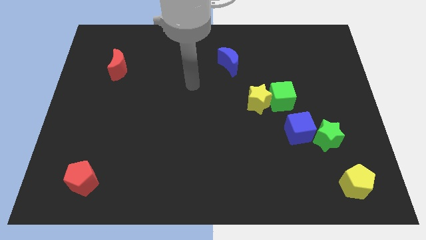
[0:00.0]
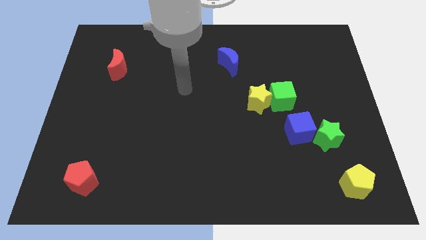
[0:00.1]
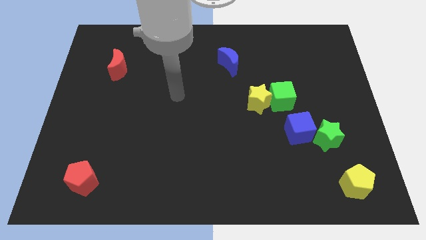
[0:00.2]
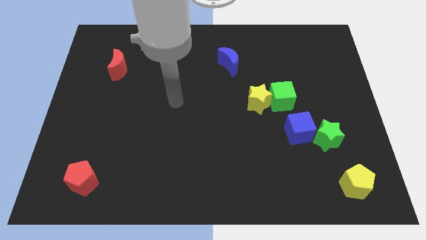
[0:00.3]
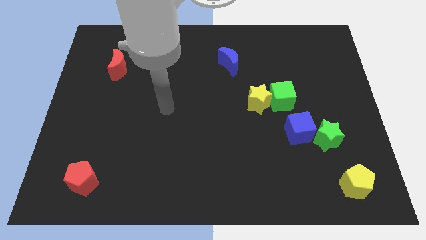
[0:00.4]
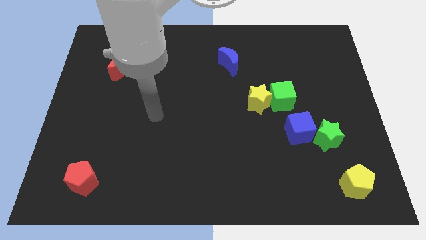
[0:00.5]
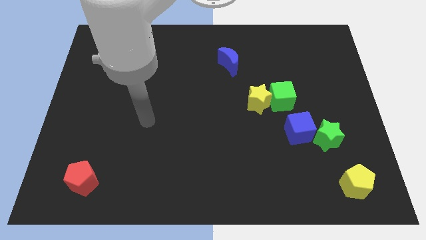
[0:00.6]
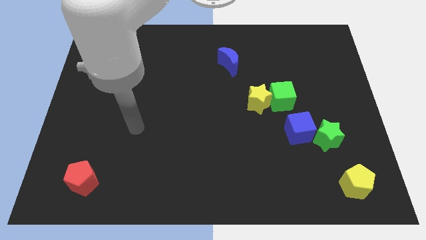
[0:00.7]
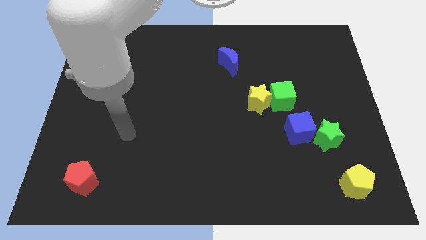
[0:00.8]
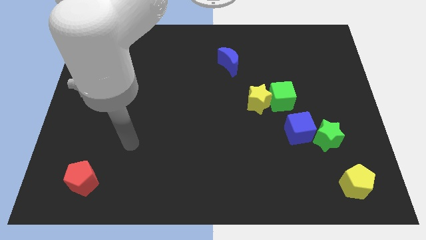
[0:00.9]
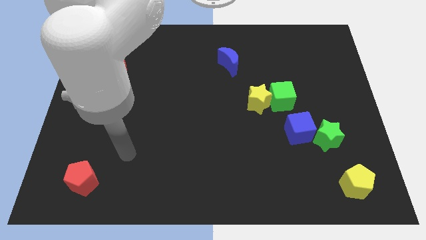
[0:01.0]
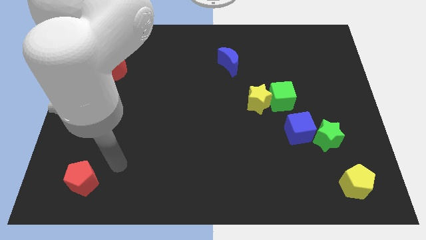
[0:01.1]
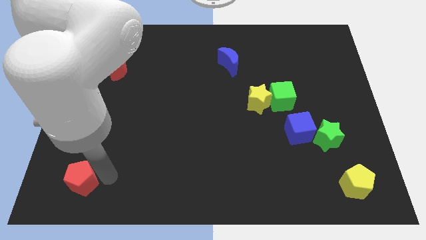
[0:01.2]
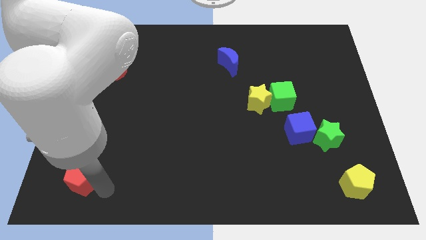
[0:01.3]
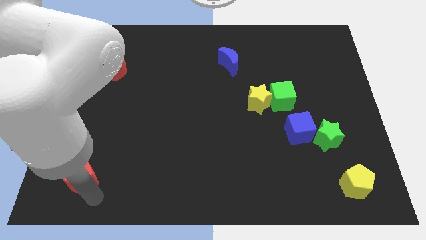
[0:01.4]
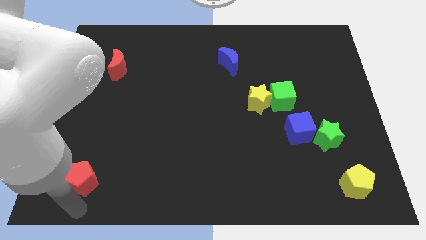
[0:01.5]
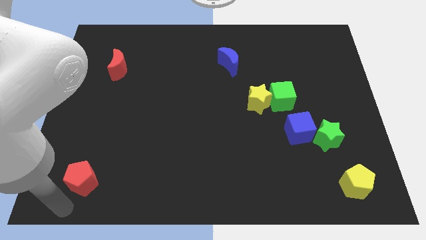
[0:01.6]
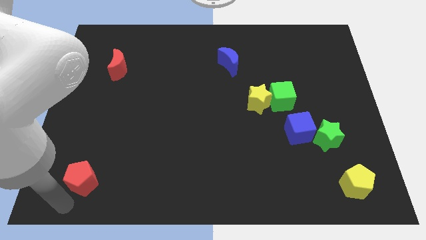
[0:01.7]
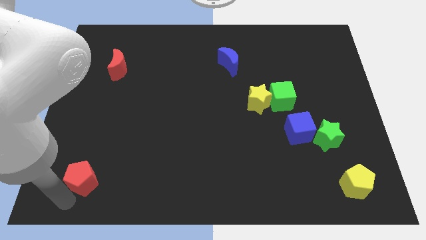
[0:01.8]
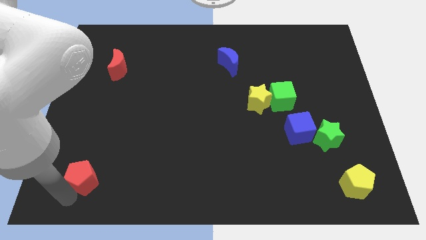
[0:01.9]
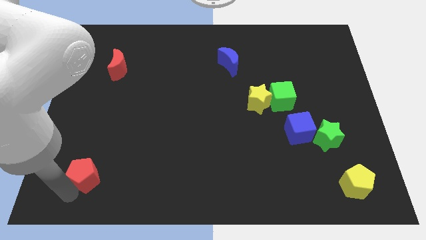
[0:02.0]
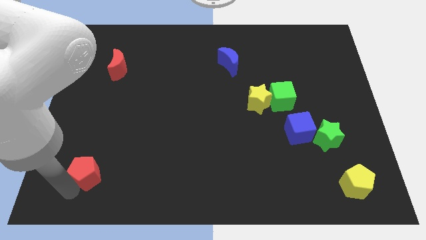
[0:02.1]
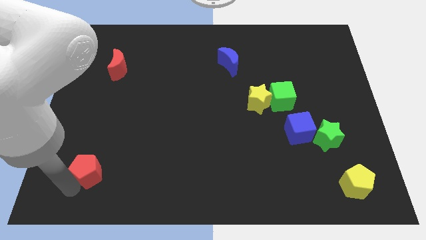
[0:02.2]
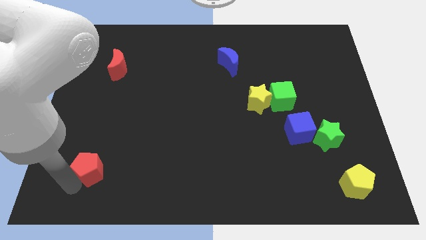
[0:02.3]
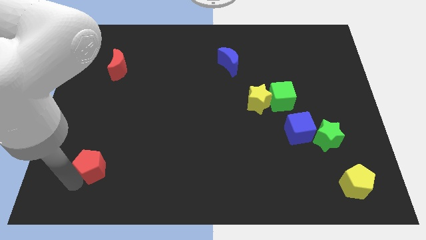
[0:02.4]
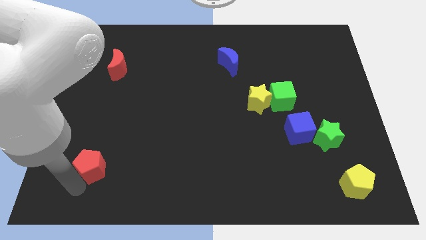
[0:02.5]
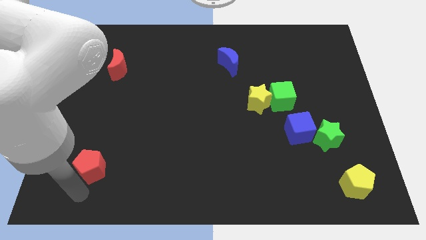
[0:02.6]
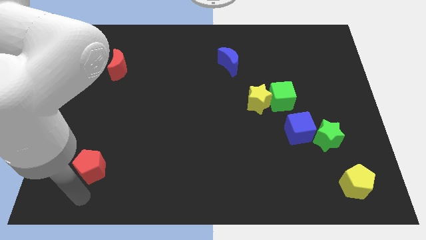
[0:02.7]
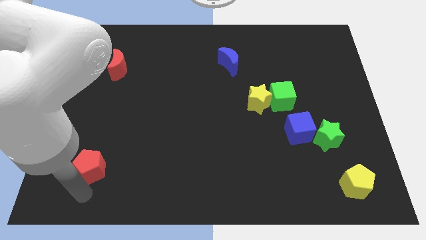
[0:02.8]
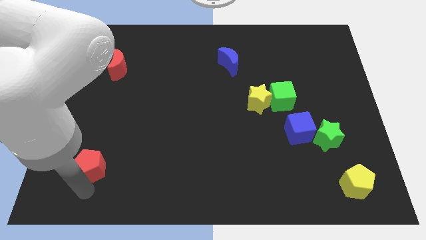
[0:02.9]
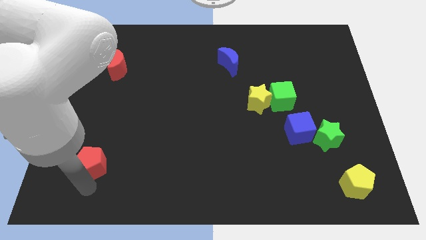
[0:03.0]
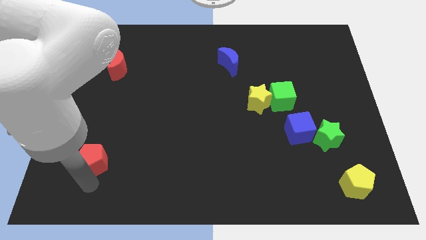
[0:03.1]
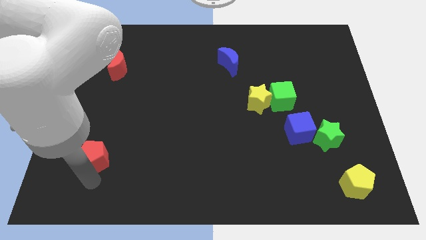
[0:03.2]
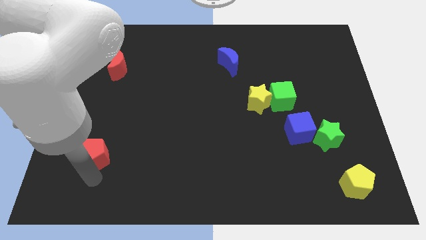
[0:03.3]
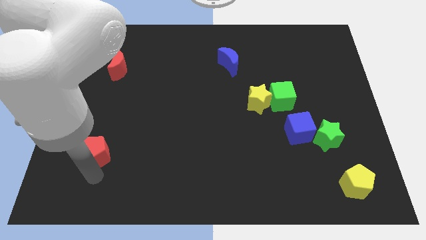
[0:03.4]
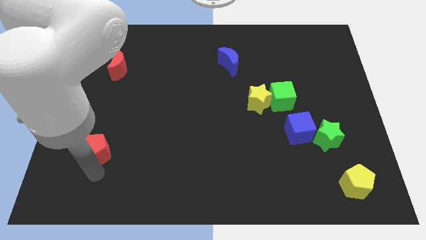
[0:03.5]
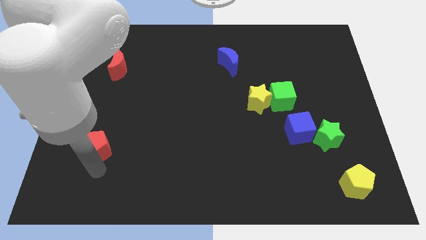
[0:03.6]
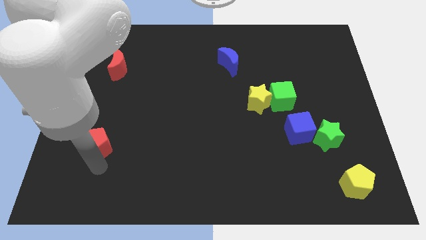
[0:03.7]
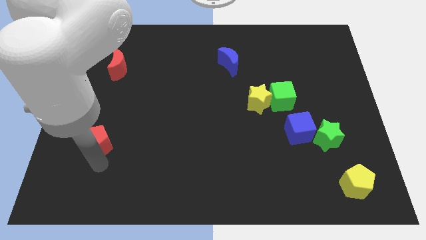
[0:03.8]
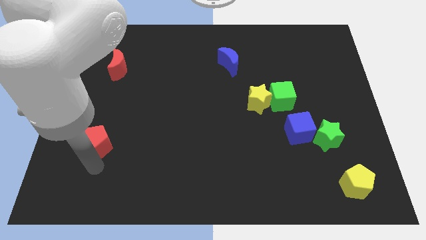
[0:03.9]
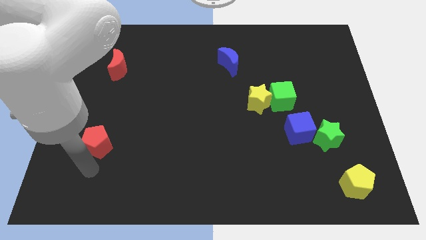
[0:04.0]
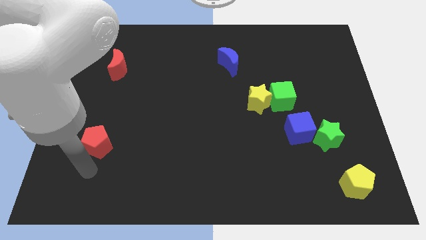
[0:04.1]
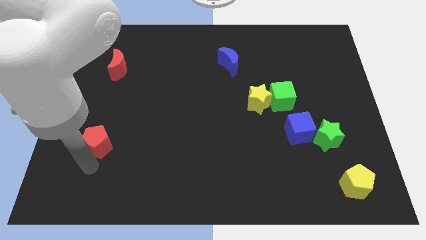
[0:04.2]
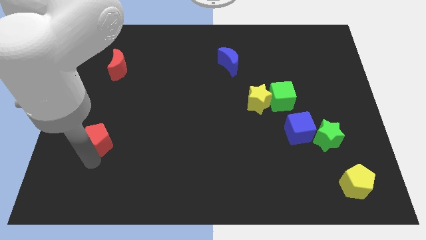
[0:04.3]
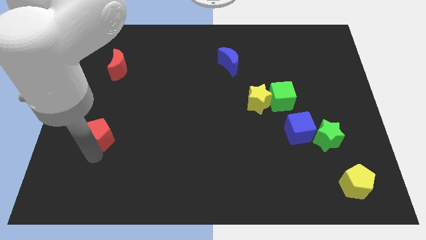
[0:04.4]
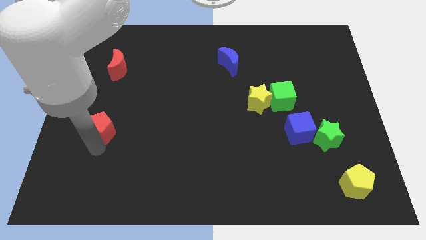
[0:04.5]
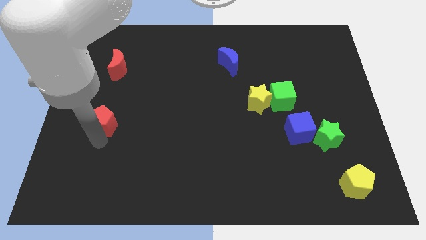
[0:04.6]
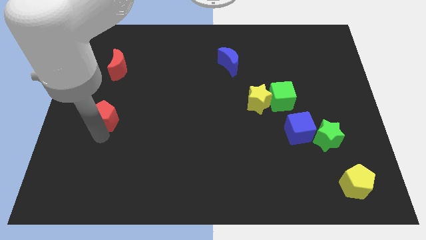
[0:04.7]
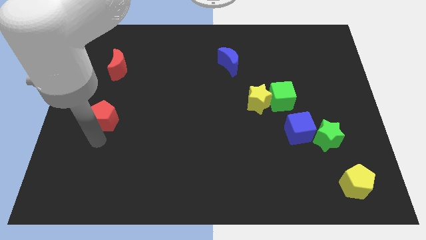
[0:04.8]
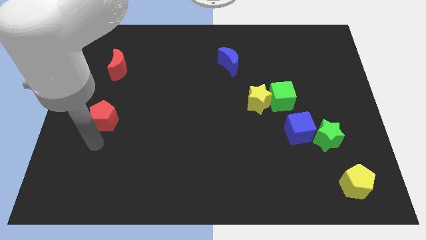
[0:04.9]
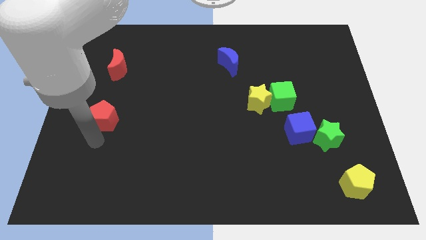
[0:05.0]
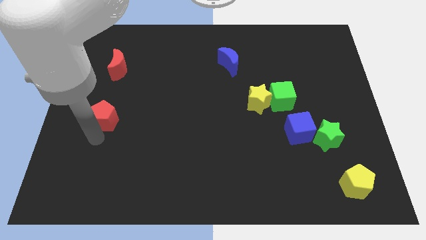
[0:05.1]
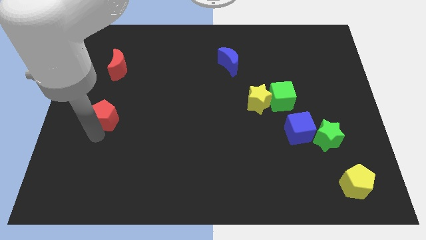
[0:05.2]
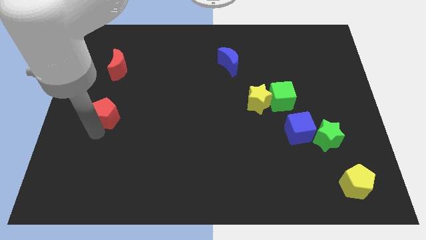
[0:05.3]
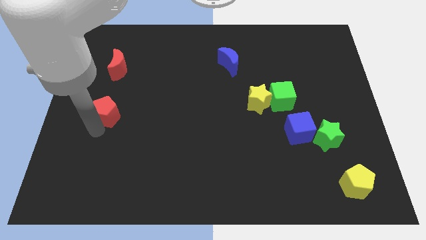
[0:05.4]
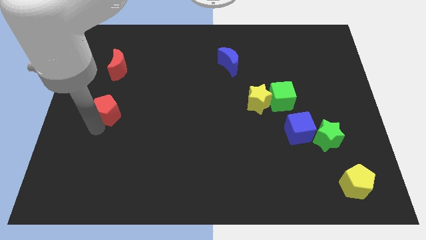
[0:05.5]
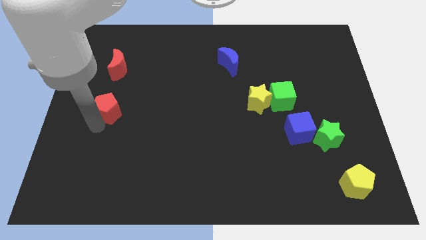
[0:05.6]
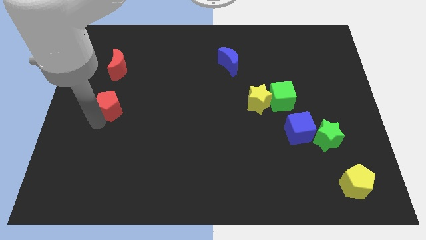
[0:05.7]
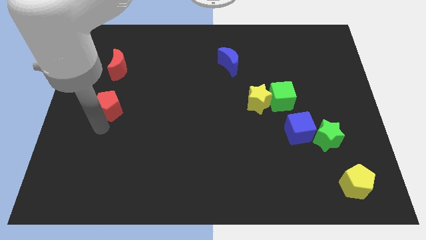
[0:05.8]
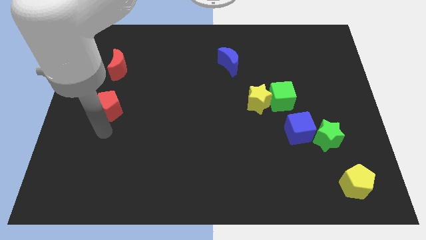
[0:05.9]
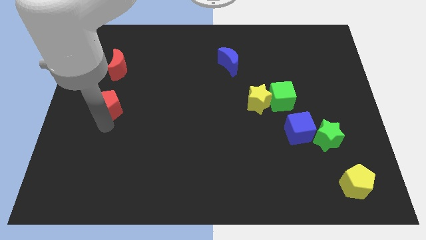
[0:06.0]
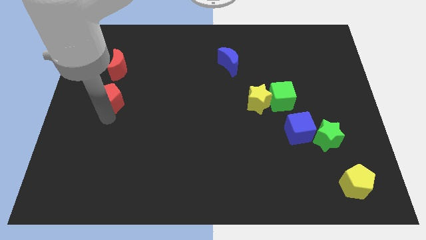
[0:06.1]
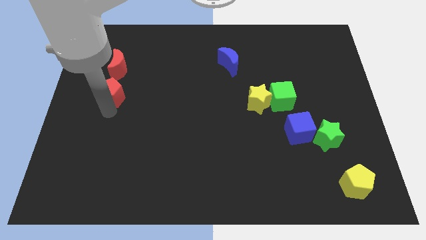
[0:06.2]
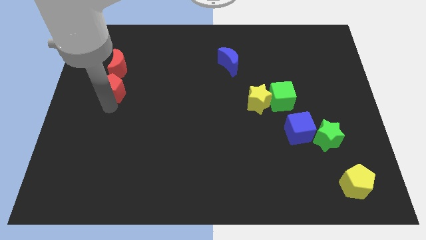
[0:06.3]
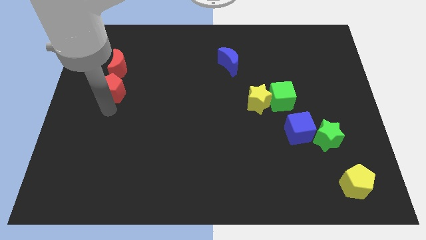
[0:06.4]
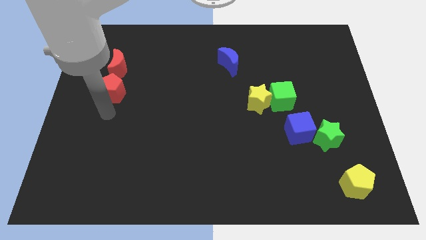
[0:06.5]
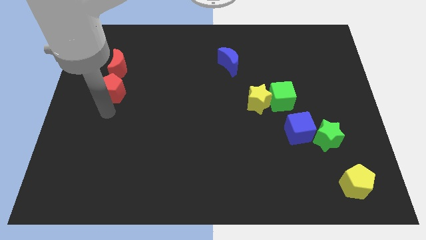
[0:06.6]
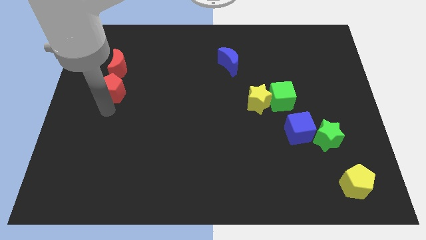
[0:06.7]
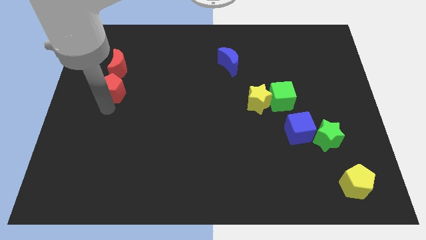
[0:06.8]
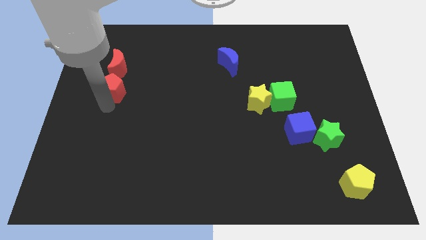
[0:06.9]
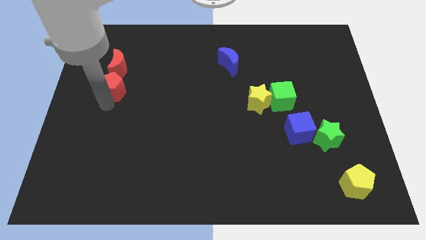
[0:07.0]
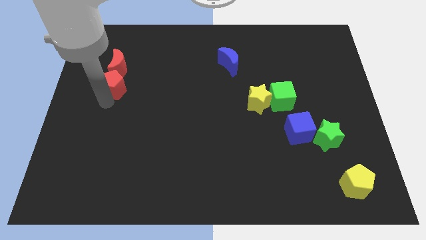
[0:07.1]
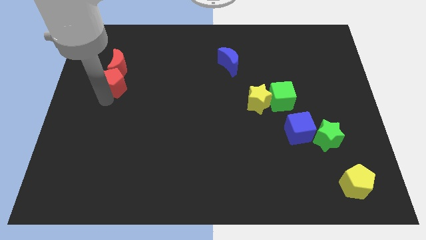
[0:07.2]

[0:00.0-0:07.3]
slide the red pentagon close to the red moon

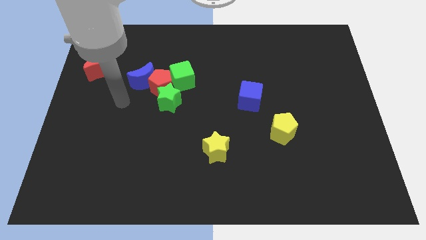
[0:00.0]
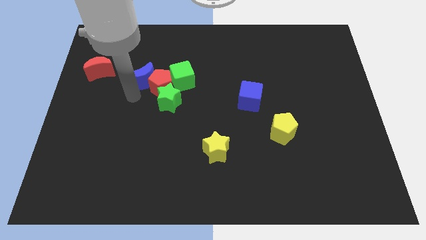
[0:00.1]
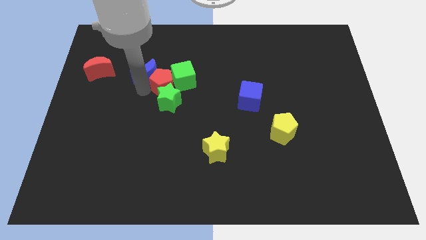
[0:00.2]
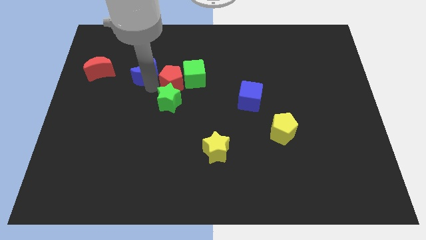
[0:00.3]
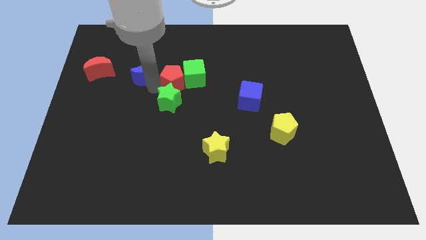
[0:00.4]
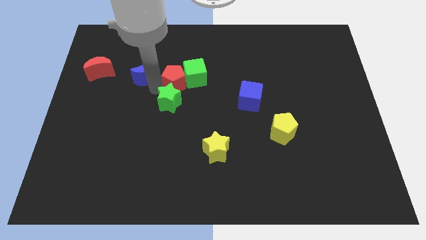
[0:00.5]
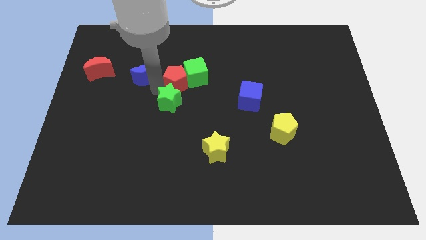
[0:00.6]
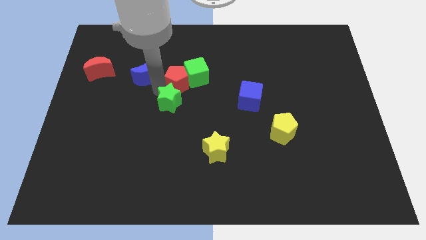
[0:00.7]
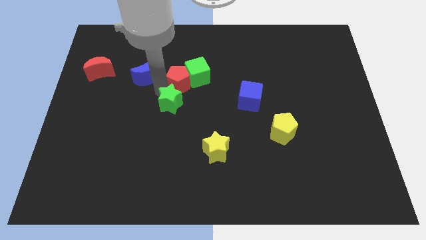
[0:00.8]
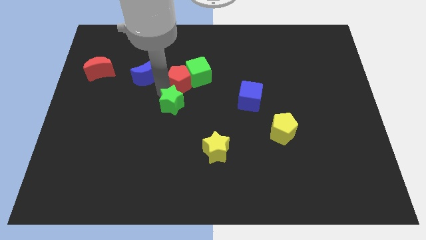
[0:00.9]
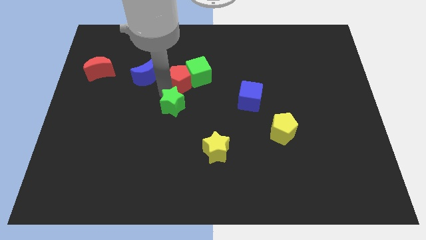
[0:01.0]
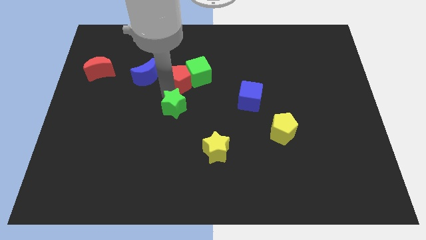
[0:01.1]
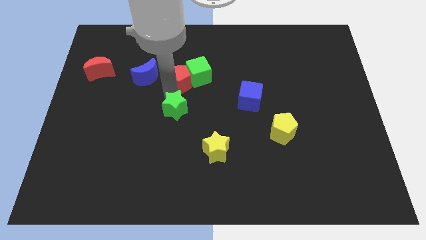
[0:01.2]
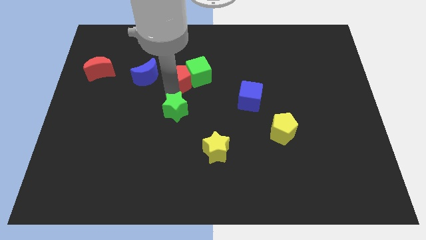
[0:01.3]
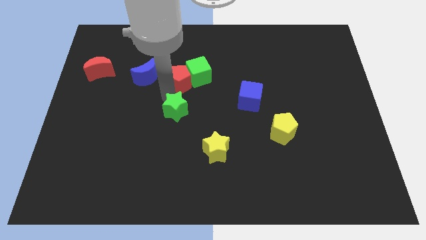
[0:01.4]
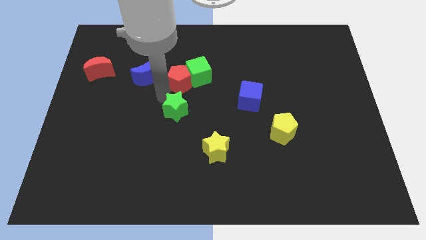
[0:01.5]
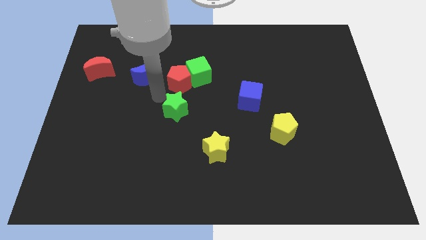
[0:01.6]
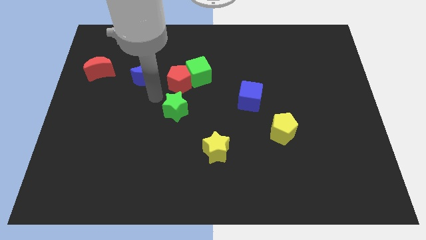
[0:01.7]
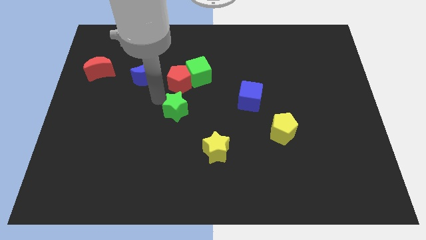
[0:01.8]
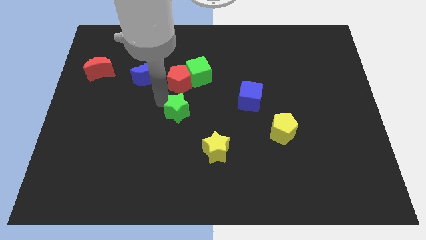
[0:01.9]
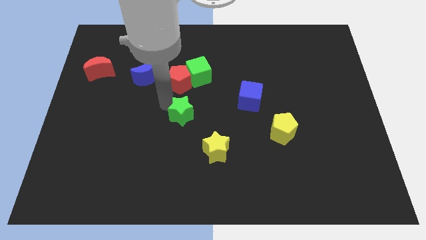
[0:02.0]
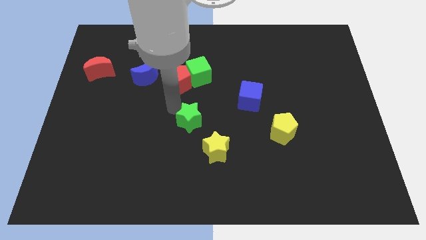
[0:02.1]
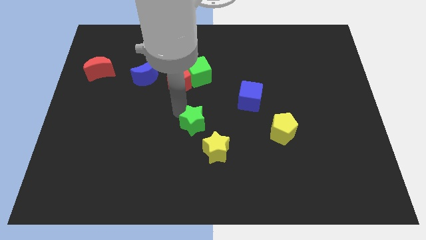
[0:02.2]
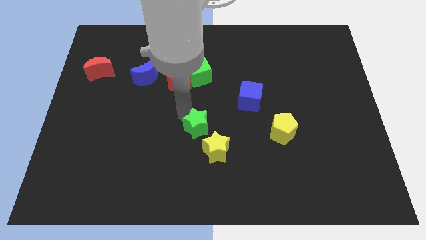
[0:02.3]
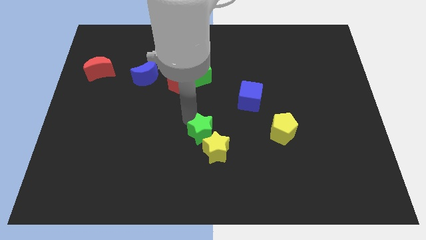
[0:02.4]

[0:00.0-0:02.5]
put the green star towards the yellow star
